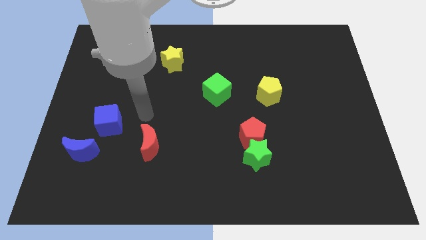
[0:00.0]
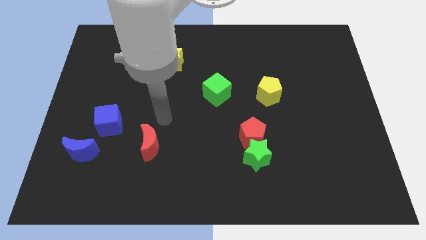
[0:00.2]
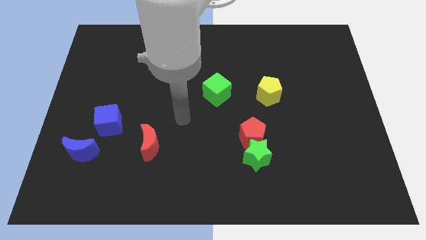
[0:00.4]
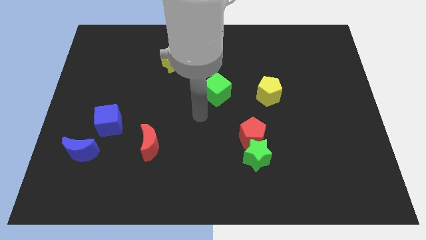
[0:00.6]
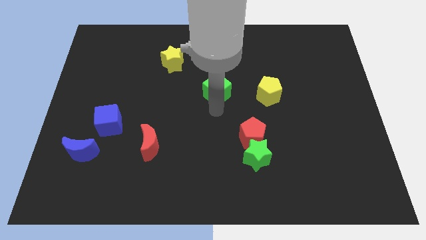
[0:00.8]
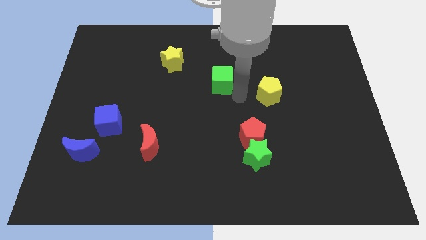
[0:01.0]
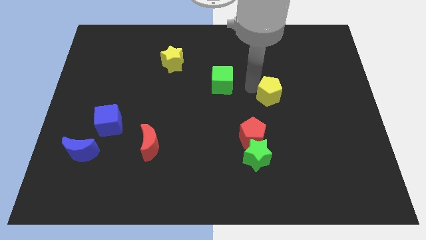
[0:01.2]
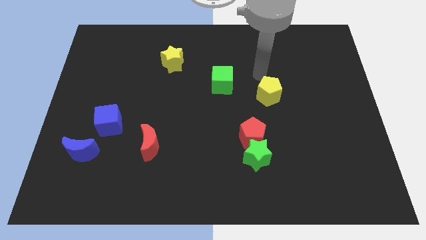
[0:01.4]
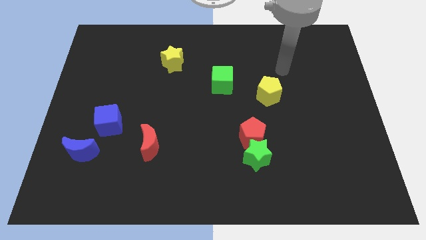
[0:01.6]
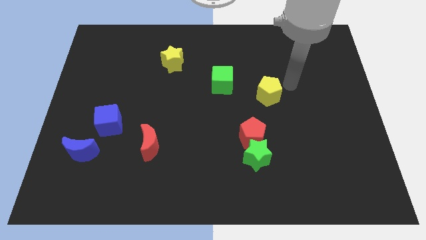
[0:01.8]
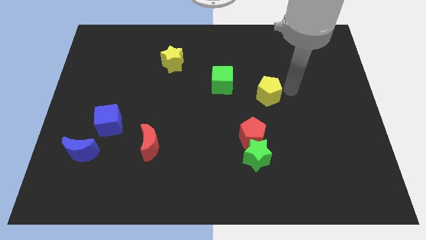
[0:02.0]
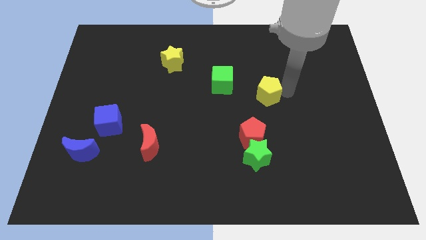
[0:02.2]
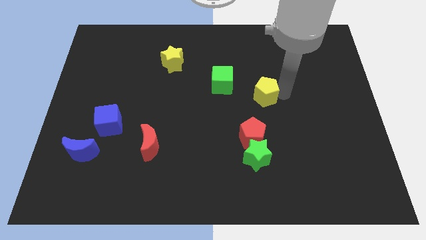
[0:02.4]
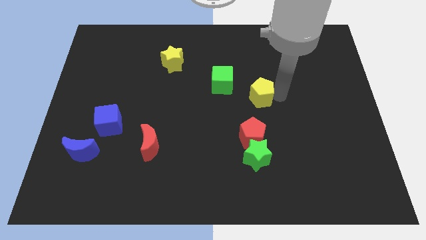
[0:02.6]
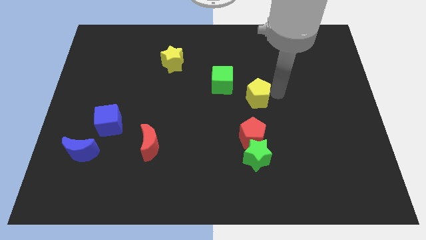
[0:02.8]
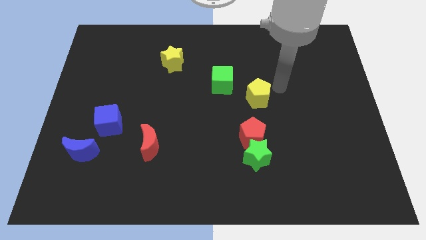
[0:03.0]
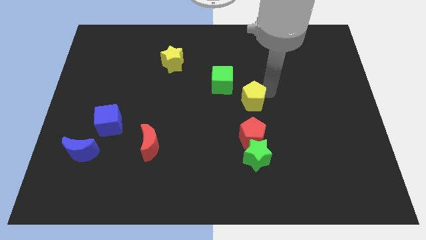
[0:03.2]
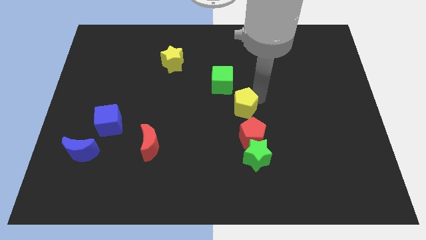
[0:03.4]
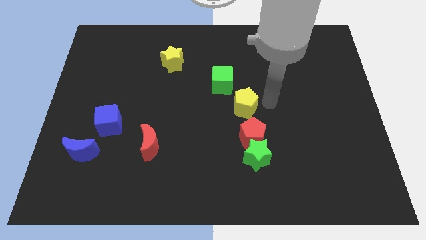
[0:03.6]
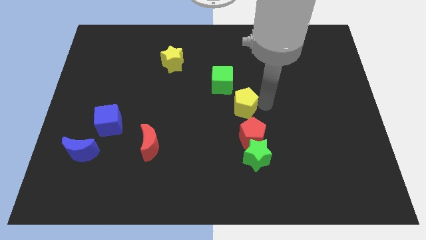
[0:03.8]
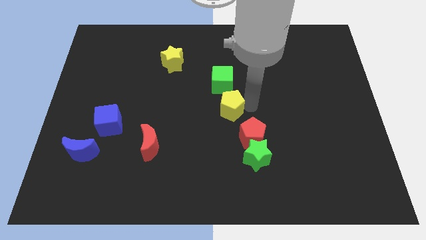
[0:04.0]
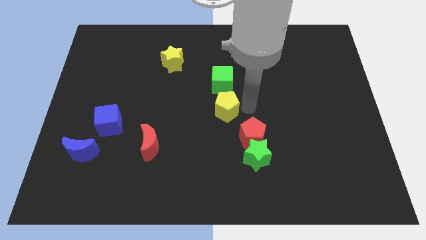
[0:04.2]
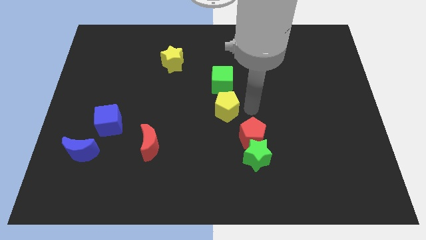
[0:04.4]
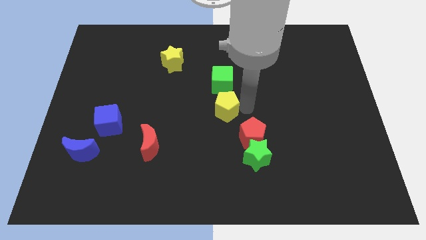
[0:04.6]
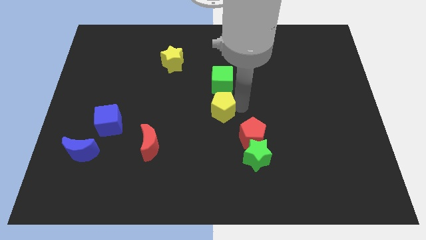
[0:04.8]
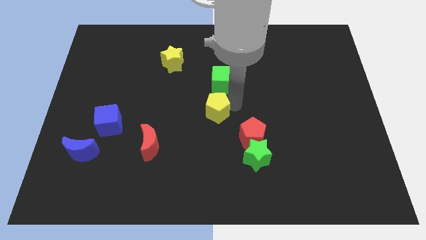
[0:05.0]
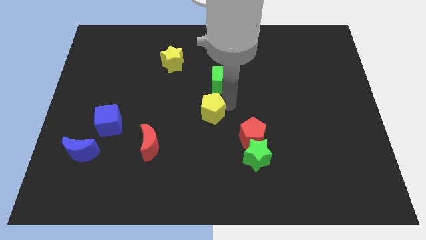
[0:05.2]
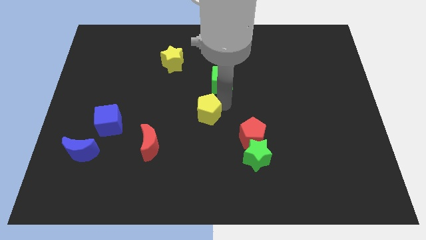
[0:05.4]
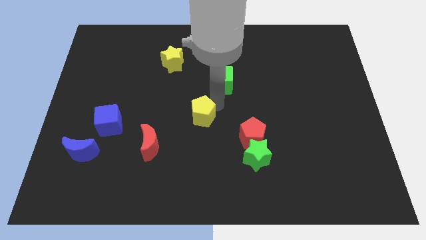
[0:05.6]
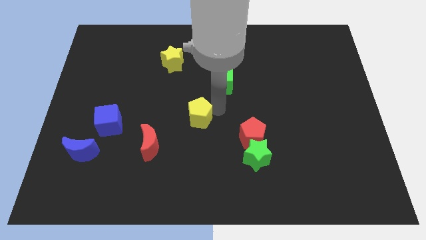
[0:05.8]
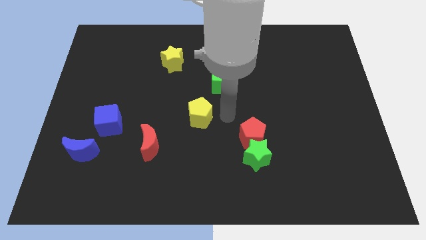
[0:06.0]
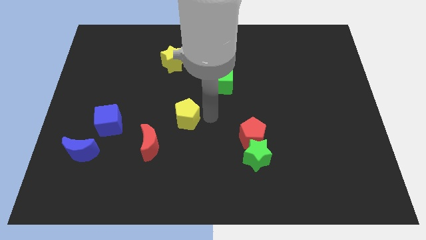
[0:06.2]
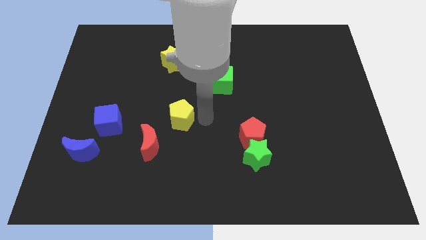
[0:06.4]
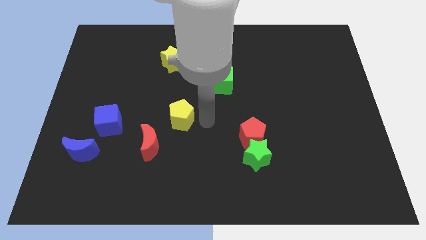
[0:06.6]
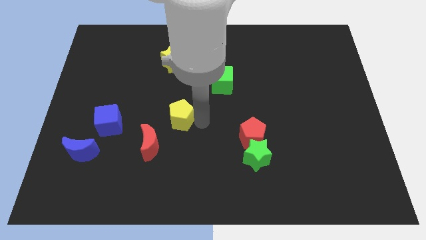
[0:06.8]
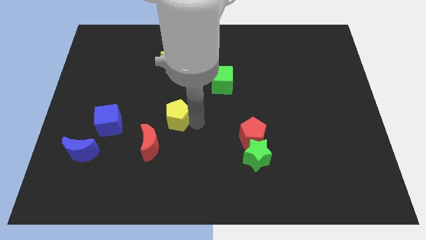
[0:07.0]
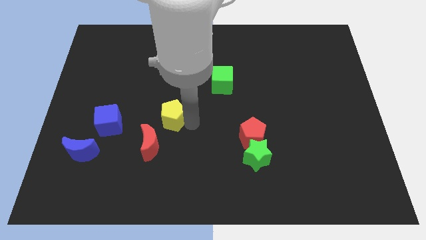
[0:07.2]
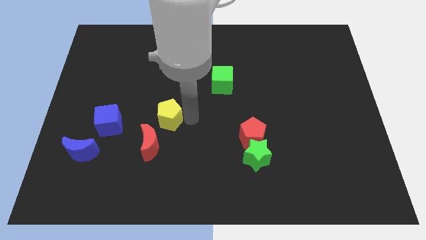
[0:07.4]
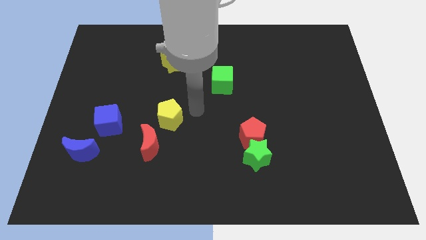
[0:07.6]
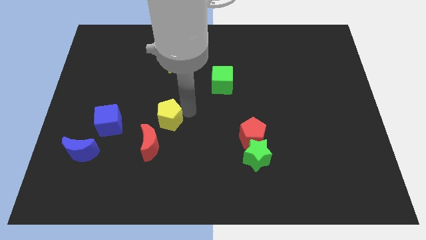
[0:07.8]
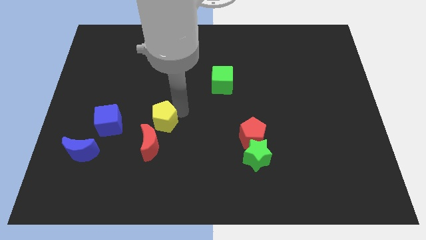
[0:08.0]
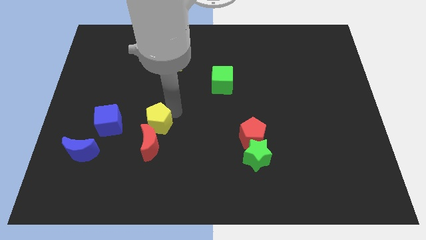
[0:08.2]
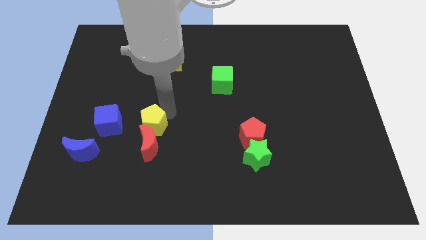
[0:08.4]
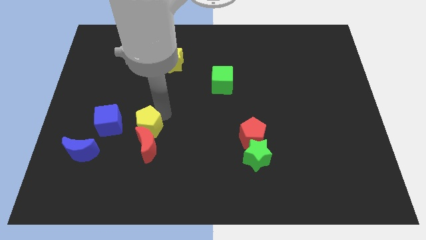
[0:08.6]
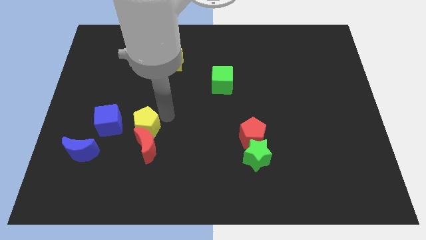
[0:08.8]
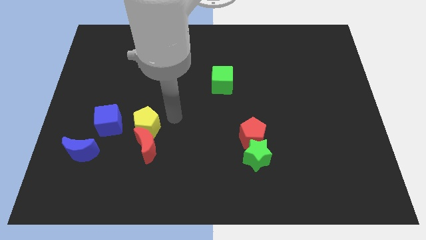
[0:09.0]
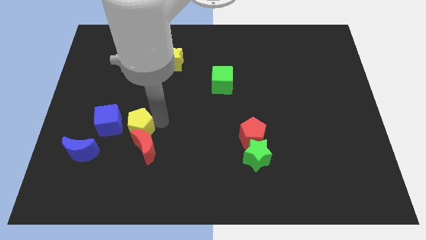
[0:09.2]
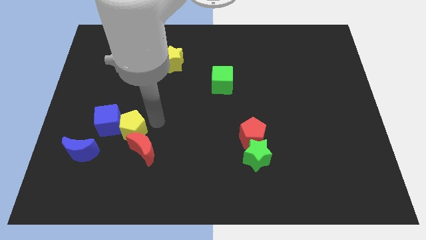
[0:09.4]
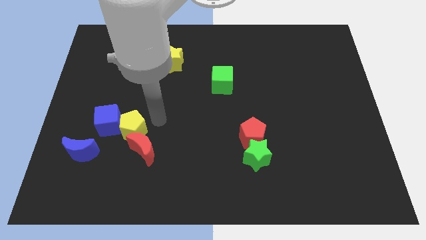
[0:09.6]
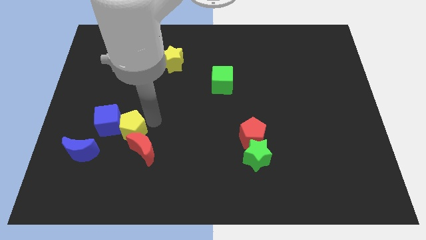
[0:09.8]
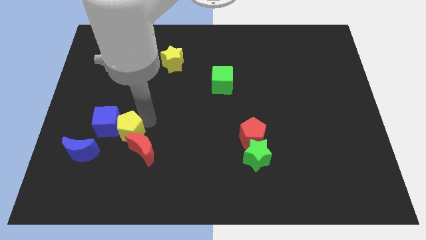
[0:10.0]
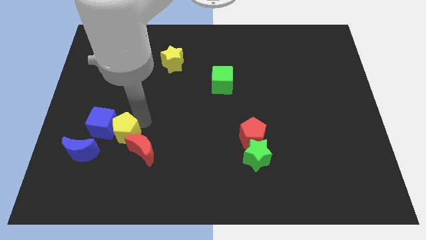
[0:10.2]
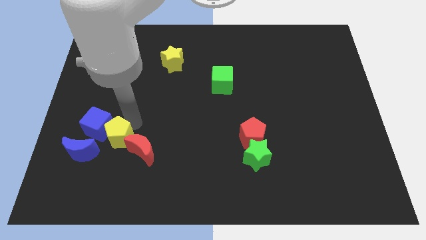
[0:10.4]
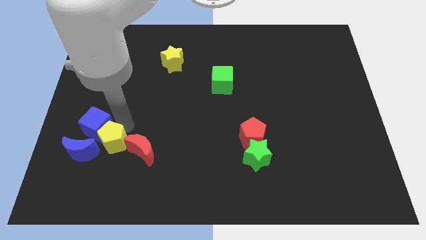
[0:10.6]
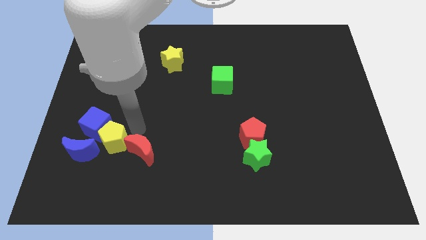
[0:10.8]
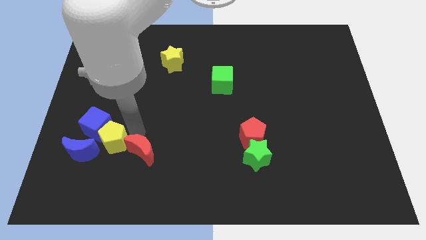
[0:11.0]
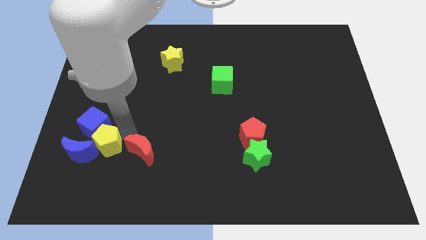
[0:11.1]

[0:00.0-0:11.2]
put the yellow pentagon next to the blue moon

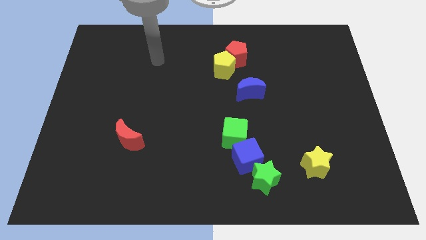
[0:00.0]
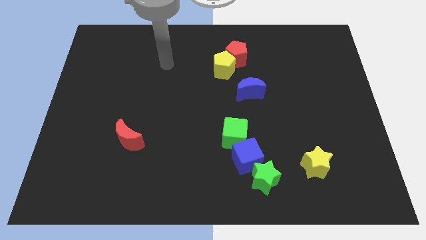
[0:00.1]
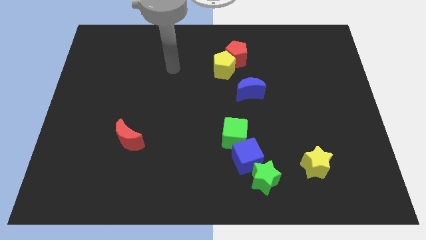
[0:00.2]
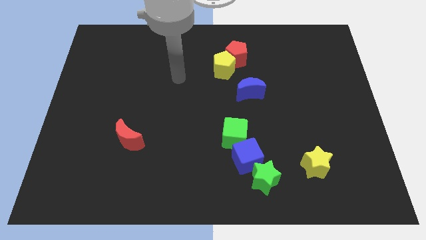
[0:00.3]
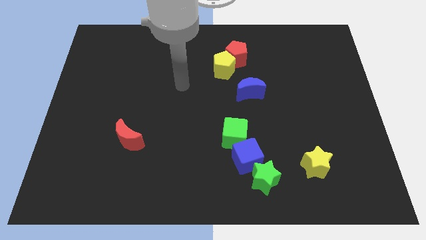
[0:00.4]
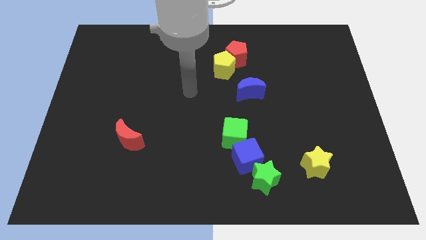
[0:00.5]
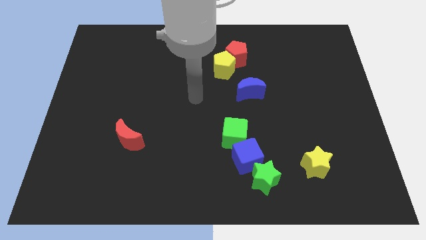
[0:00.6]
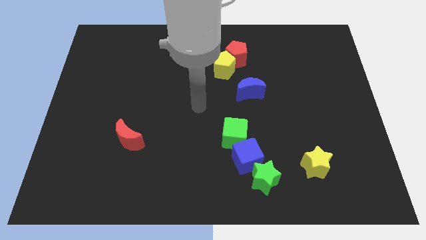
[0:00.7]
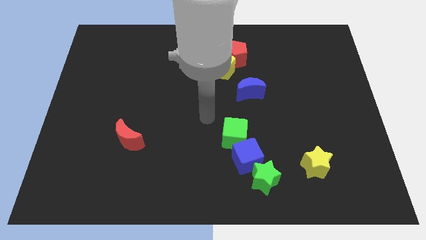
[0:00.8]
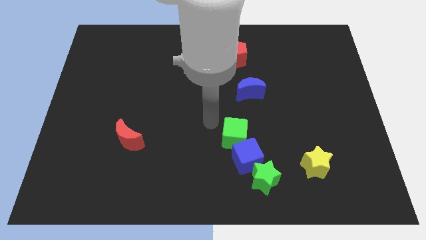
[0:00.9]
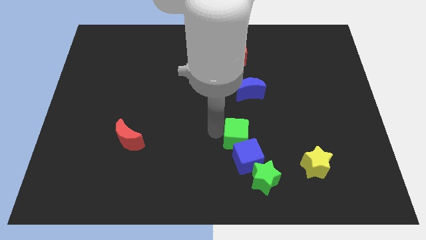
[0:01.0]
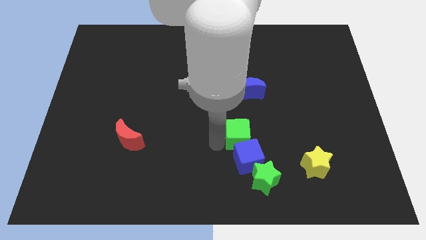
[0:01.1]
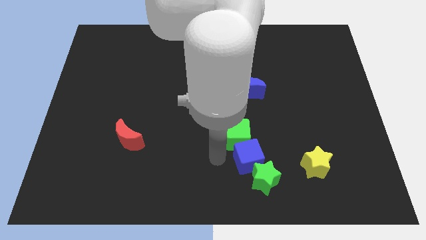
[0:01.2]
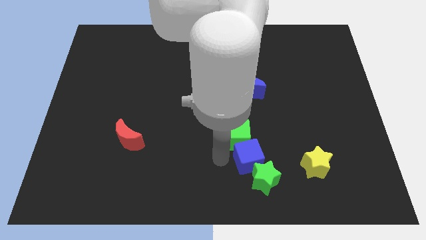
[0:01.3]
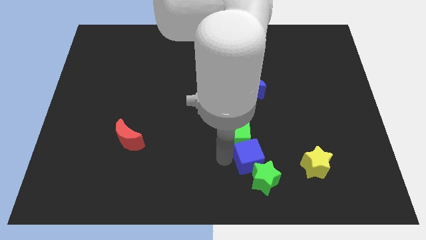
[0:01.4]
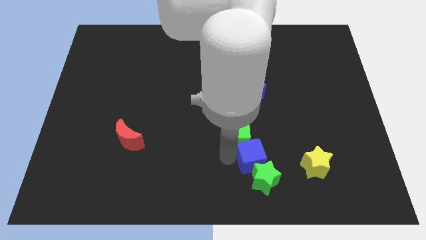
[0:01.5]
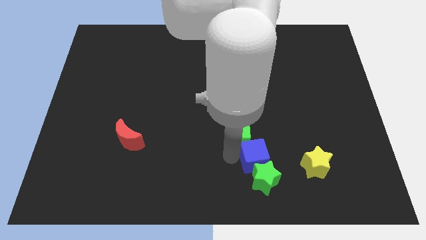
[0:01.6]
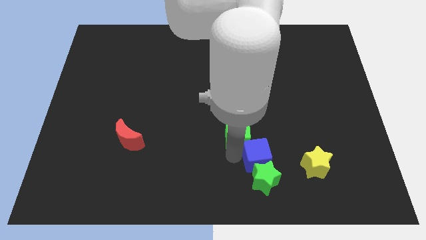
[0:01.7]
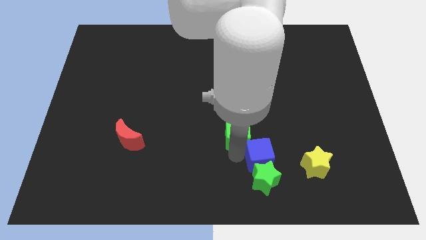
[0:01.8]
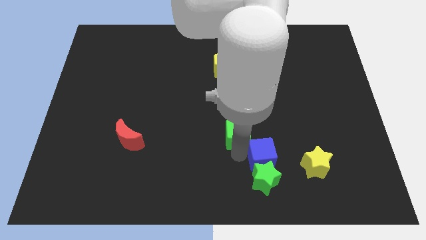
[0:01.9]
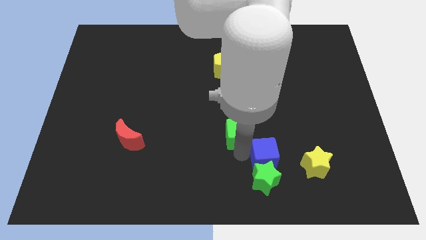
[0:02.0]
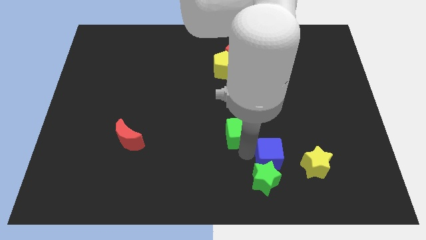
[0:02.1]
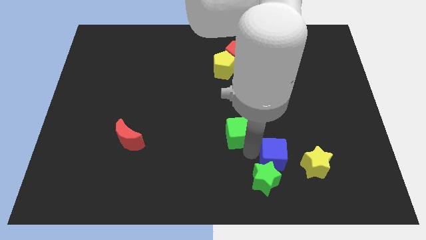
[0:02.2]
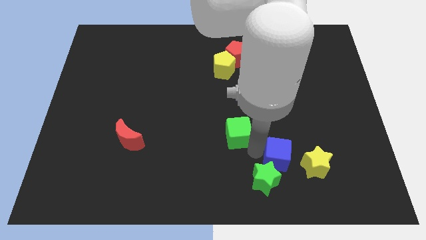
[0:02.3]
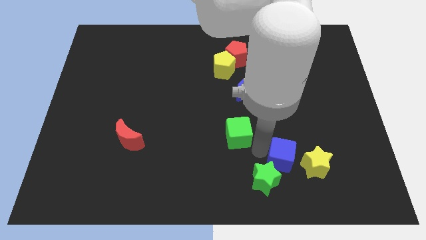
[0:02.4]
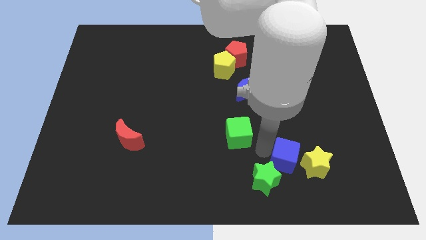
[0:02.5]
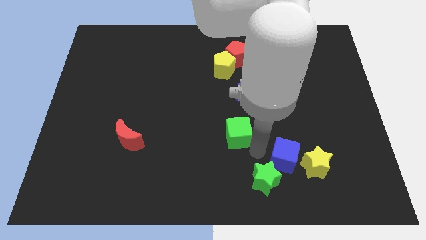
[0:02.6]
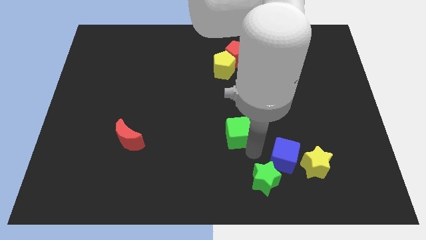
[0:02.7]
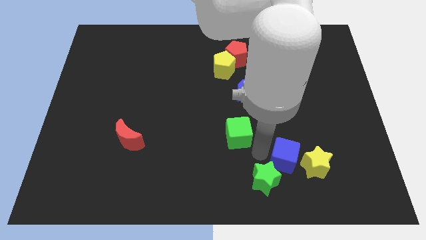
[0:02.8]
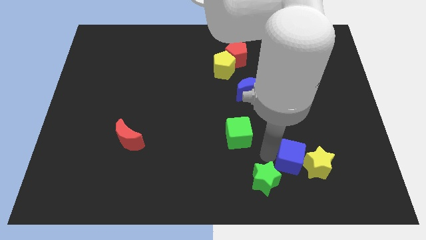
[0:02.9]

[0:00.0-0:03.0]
put the blue cube next to the yellow star
